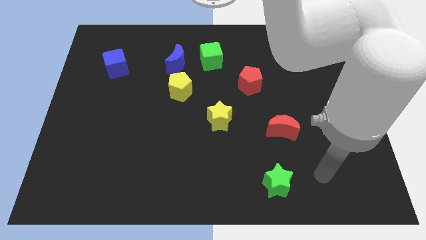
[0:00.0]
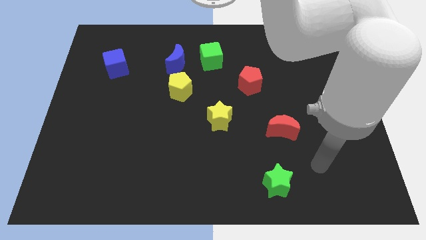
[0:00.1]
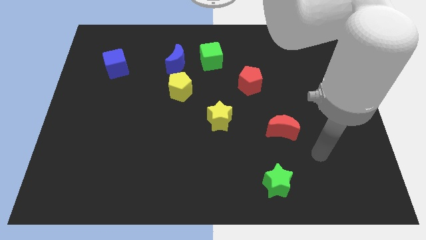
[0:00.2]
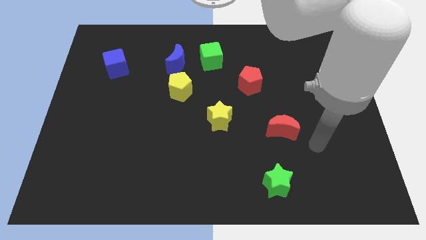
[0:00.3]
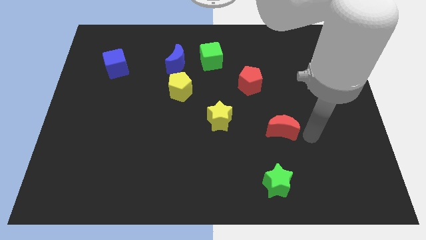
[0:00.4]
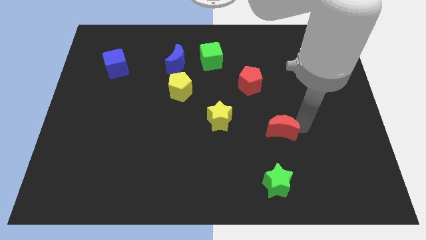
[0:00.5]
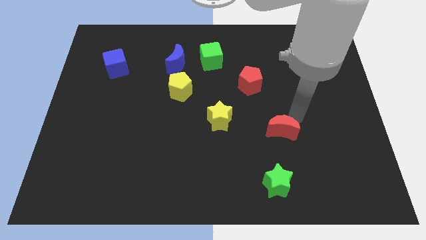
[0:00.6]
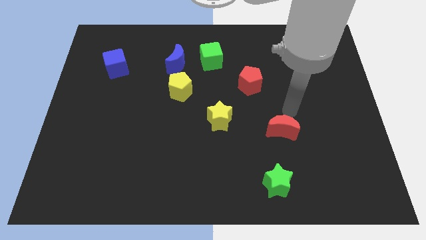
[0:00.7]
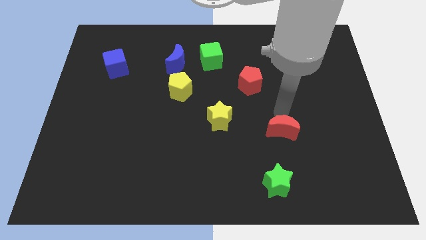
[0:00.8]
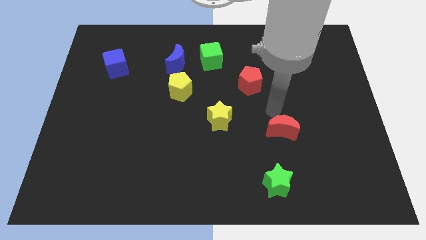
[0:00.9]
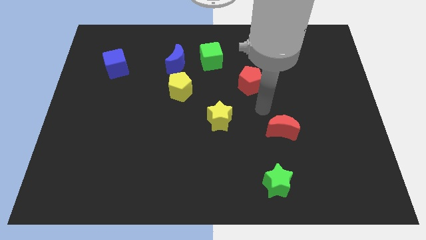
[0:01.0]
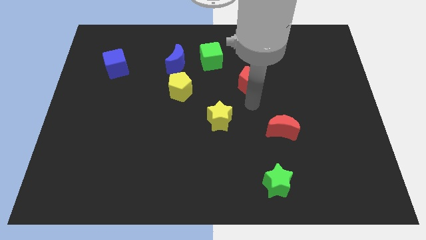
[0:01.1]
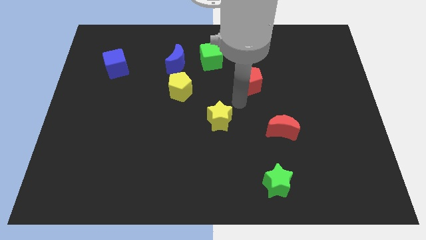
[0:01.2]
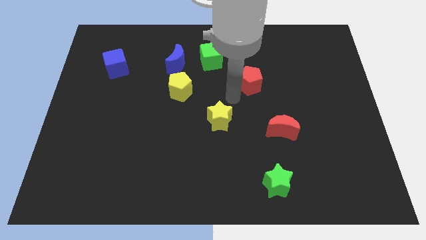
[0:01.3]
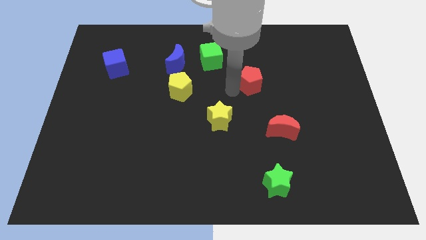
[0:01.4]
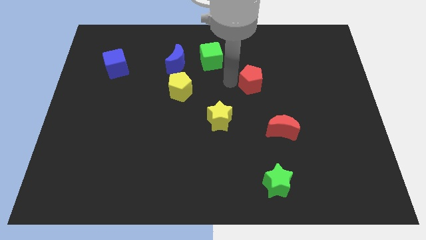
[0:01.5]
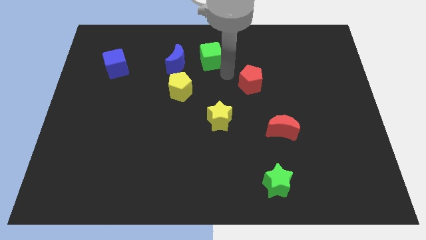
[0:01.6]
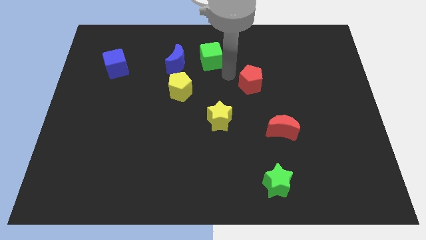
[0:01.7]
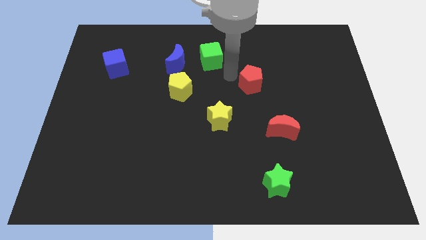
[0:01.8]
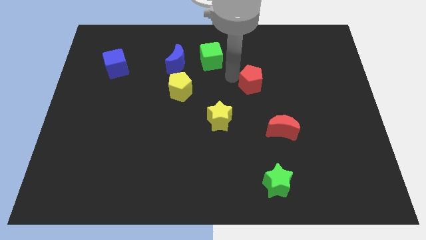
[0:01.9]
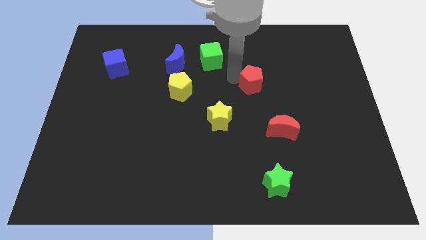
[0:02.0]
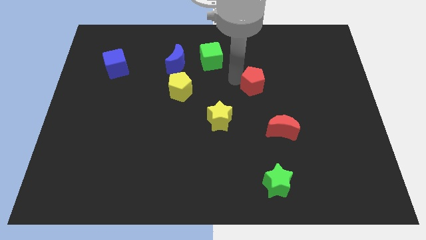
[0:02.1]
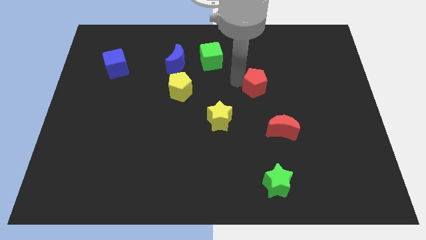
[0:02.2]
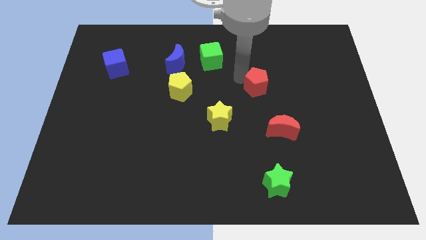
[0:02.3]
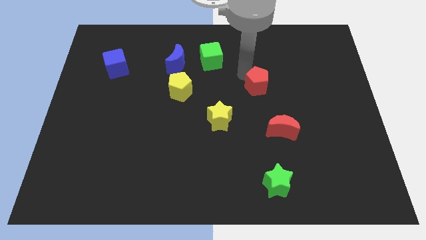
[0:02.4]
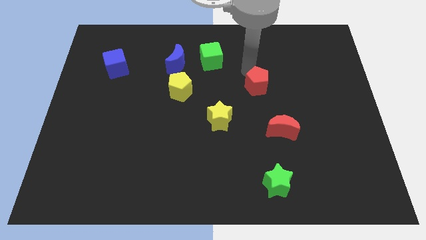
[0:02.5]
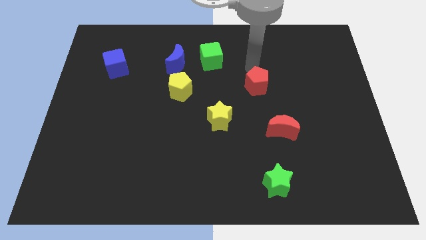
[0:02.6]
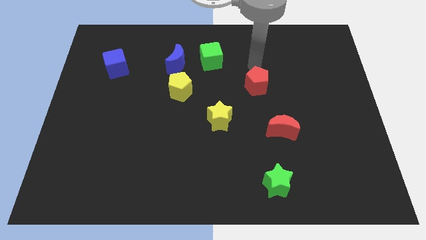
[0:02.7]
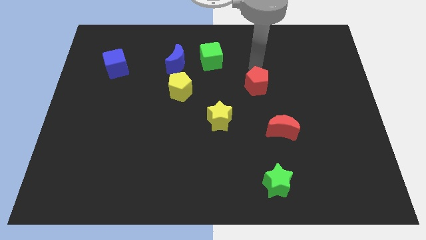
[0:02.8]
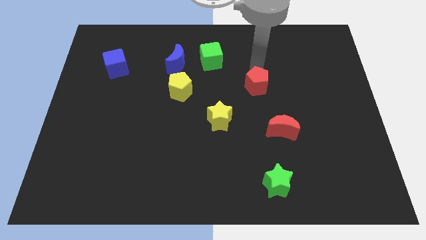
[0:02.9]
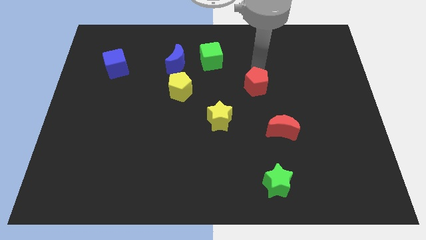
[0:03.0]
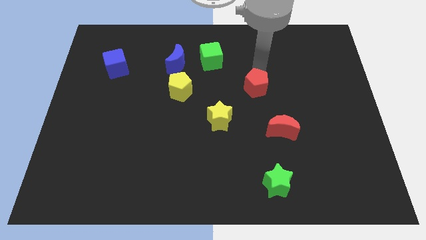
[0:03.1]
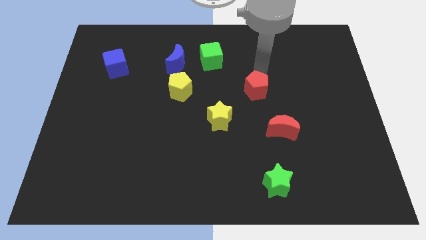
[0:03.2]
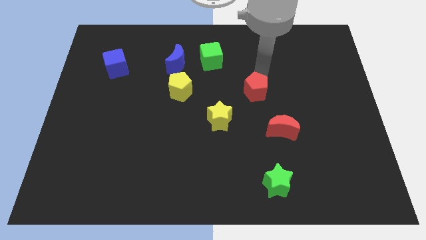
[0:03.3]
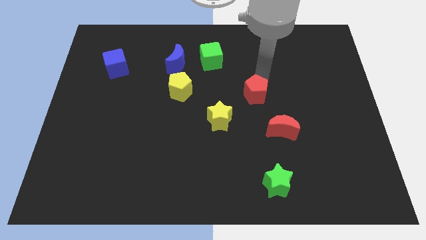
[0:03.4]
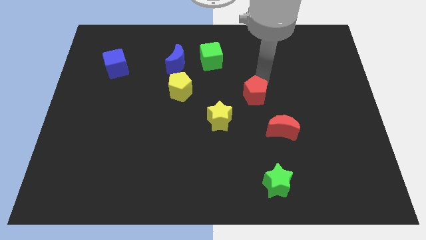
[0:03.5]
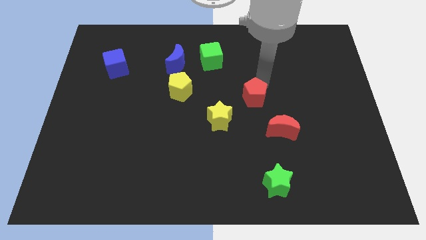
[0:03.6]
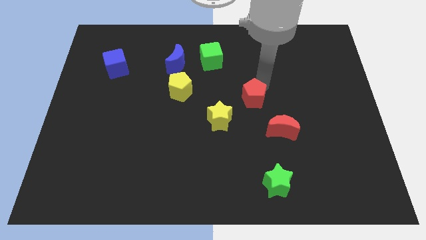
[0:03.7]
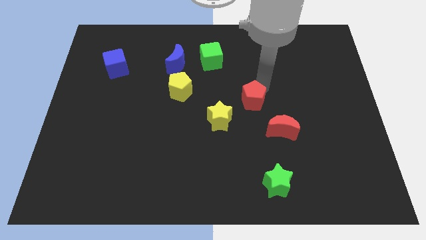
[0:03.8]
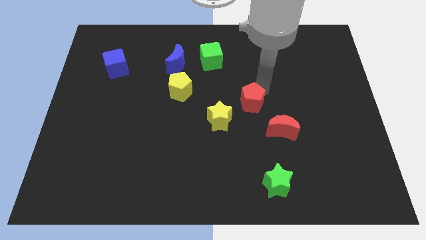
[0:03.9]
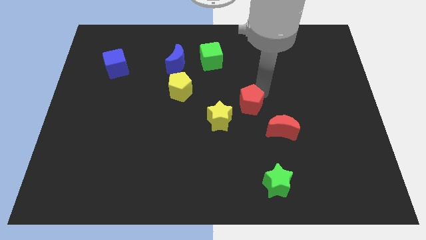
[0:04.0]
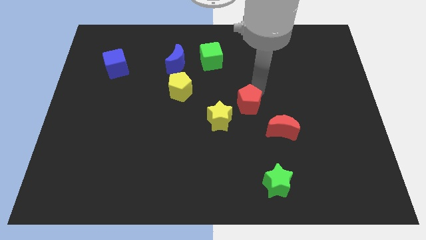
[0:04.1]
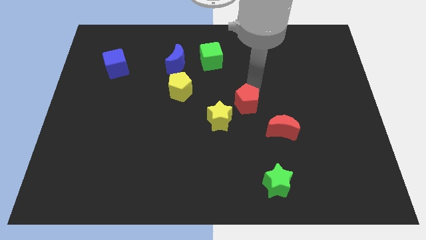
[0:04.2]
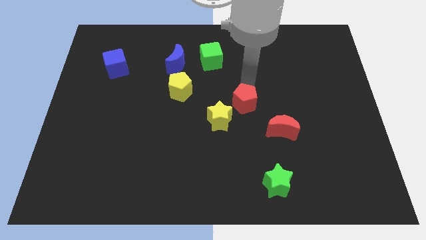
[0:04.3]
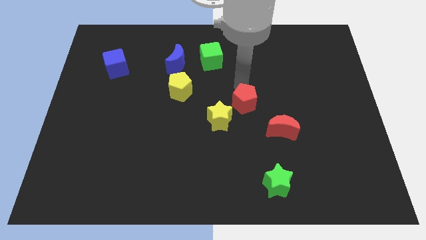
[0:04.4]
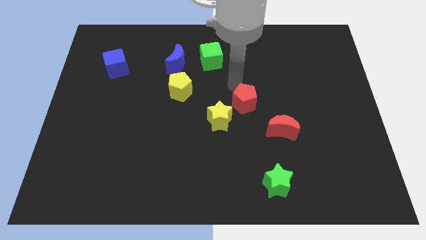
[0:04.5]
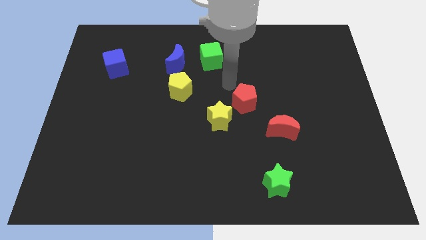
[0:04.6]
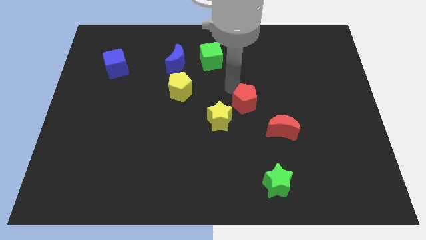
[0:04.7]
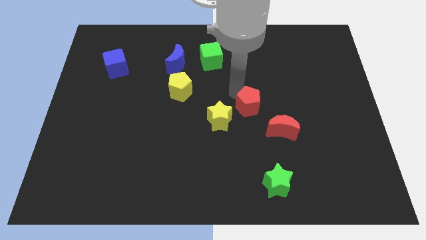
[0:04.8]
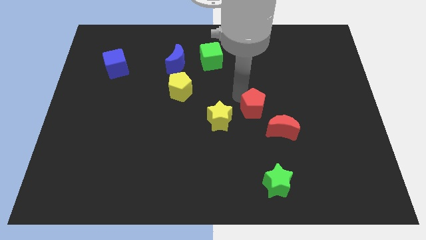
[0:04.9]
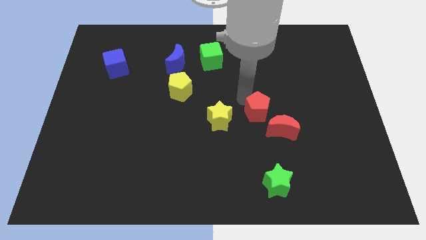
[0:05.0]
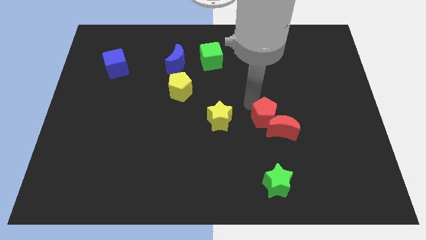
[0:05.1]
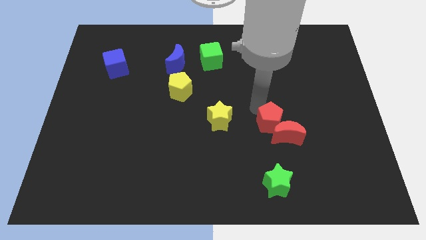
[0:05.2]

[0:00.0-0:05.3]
push the red pentagon to the top of the green star

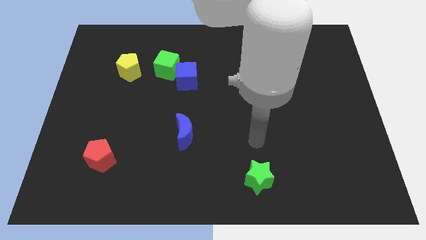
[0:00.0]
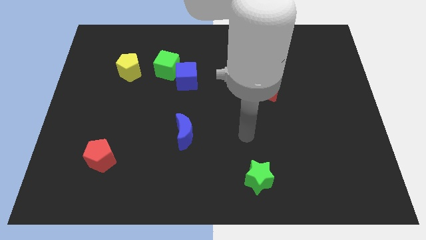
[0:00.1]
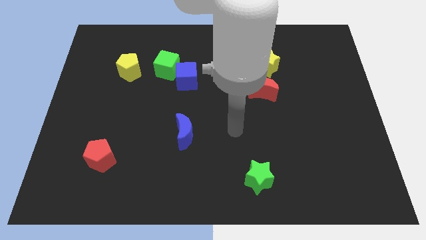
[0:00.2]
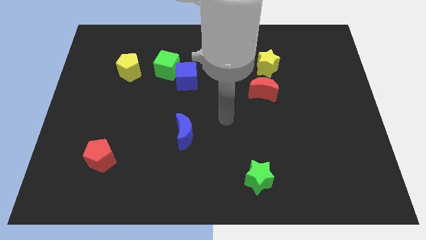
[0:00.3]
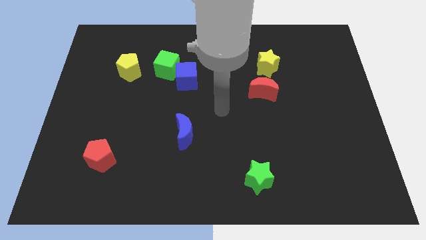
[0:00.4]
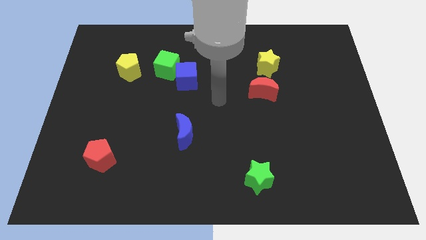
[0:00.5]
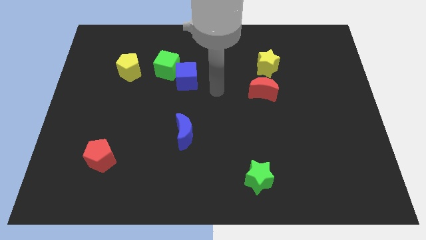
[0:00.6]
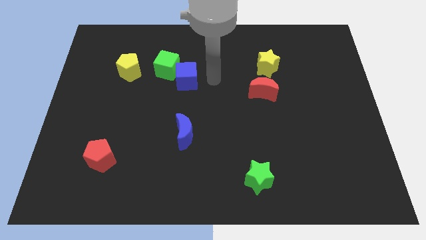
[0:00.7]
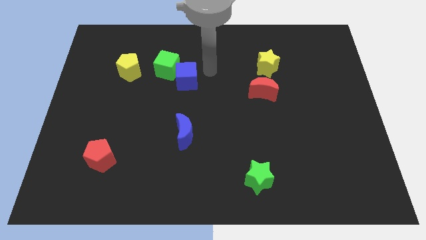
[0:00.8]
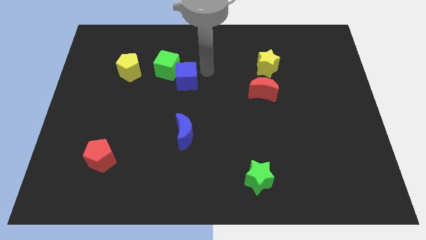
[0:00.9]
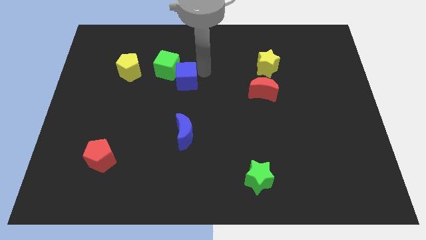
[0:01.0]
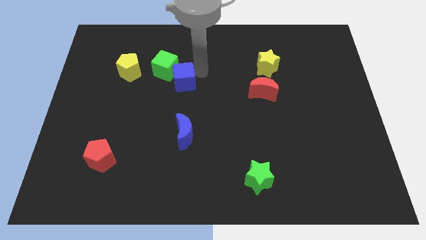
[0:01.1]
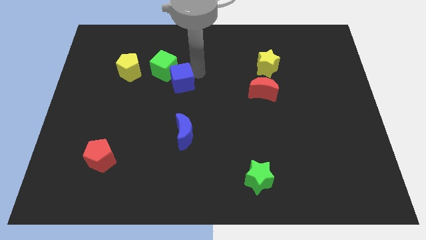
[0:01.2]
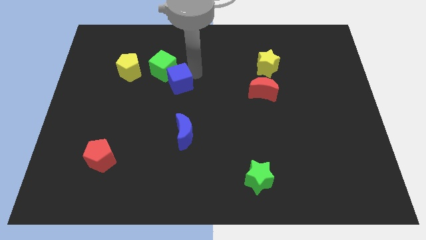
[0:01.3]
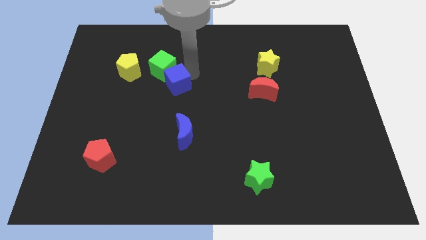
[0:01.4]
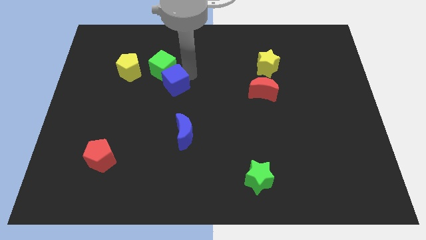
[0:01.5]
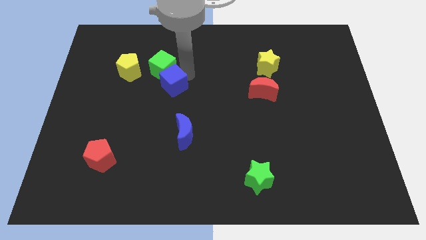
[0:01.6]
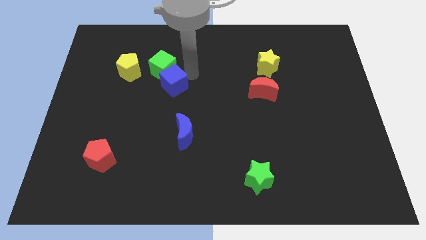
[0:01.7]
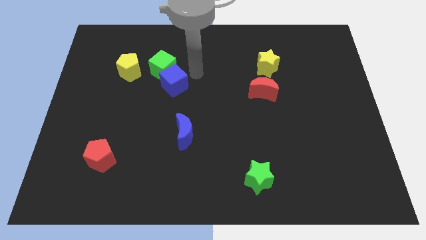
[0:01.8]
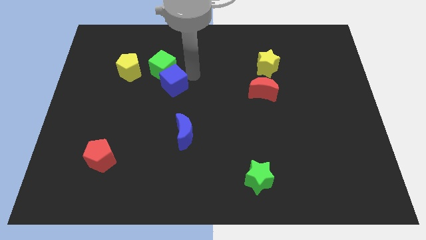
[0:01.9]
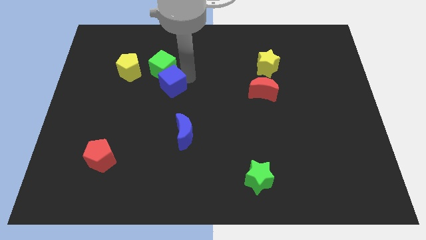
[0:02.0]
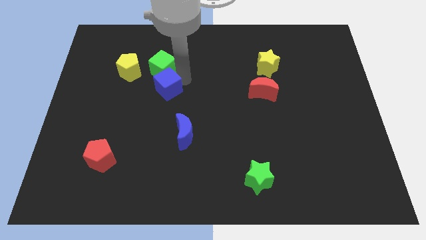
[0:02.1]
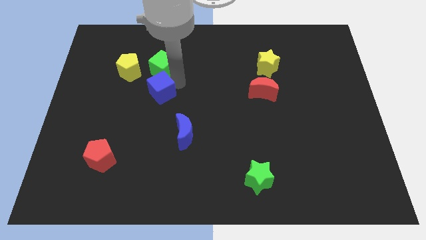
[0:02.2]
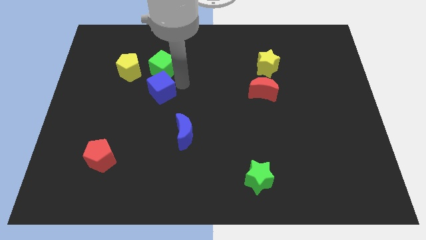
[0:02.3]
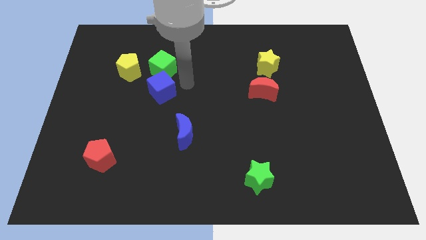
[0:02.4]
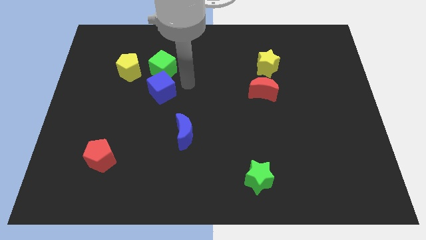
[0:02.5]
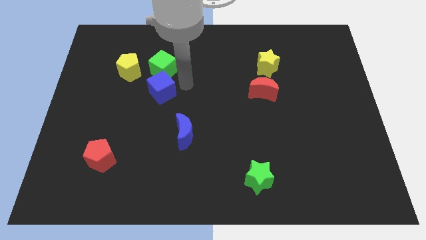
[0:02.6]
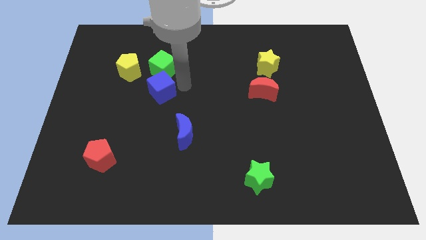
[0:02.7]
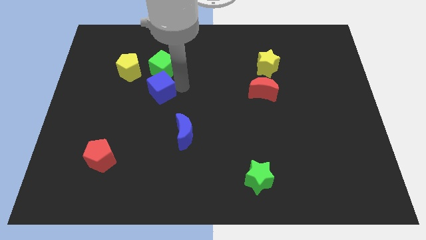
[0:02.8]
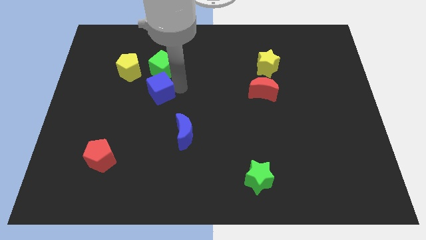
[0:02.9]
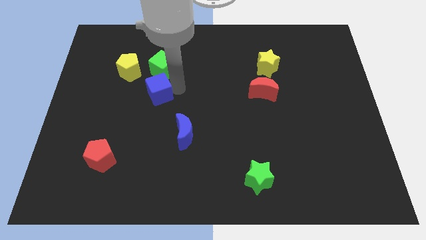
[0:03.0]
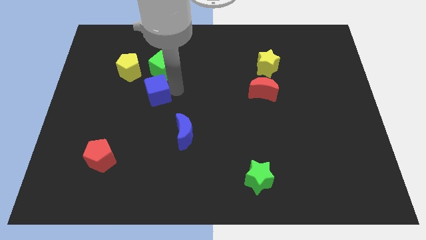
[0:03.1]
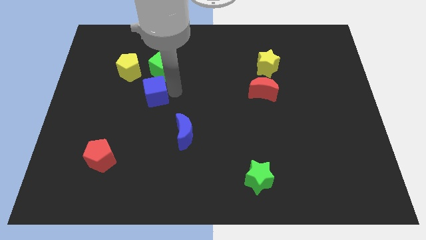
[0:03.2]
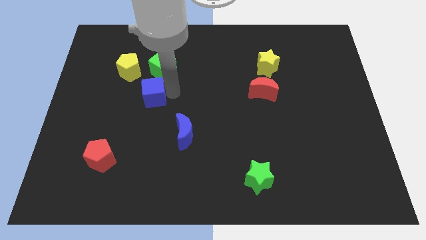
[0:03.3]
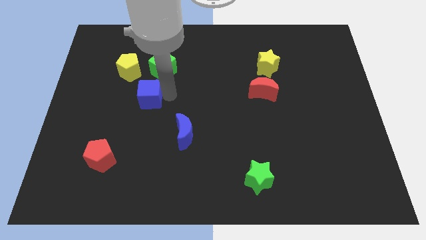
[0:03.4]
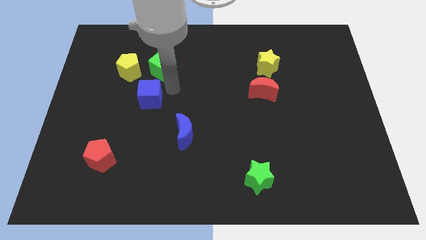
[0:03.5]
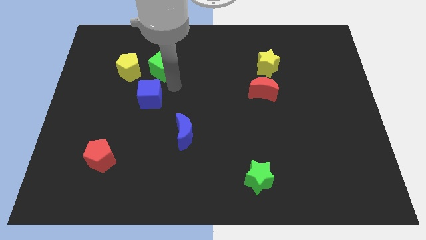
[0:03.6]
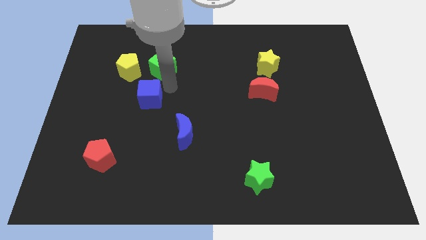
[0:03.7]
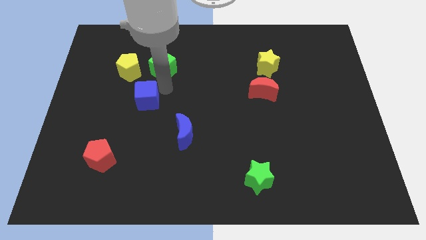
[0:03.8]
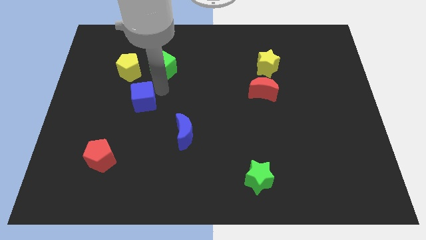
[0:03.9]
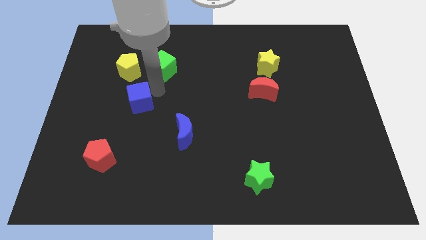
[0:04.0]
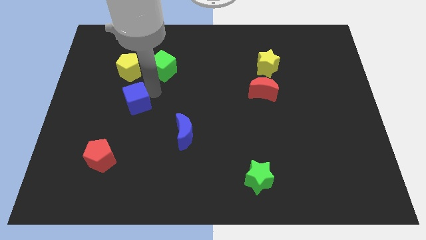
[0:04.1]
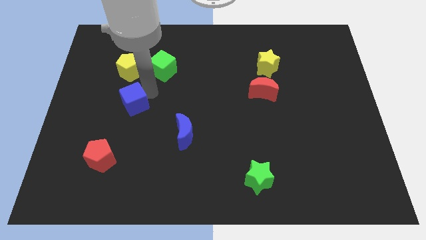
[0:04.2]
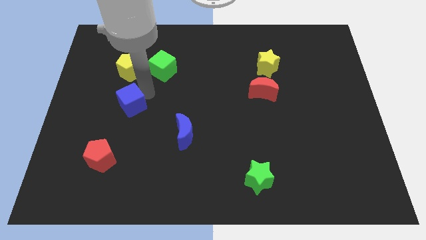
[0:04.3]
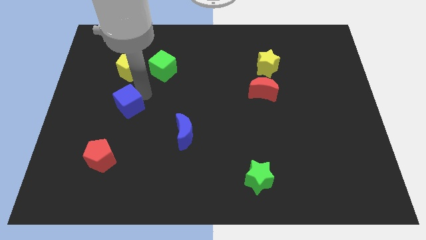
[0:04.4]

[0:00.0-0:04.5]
put the blue cube to the top side of the red pentagon
